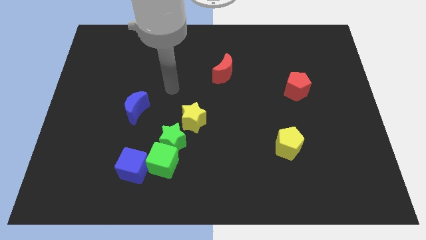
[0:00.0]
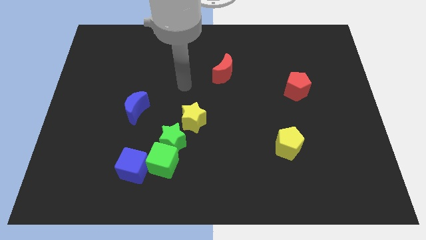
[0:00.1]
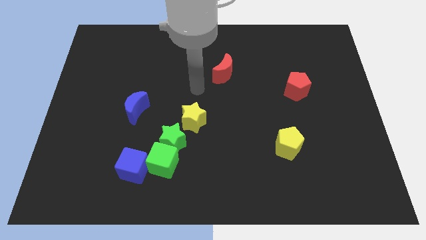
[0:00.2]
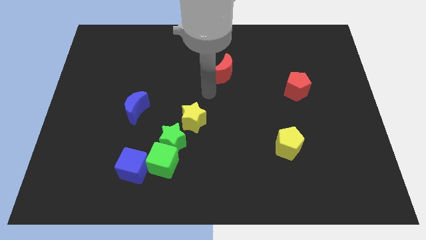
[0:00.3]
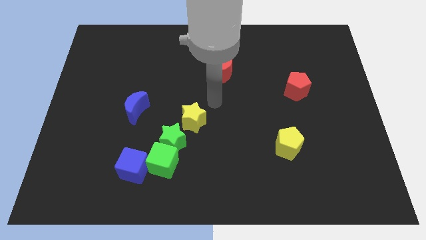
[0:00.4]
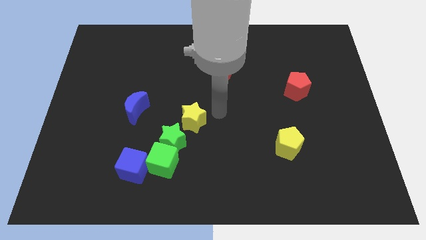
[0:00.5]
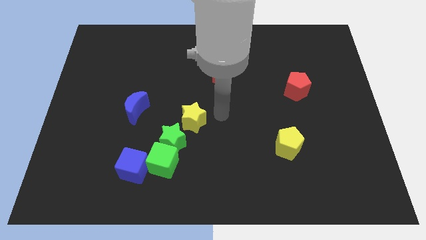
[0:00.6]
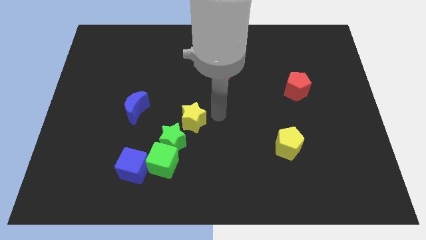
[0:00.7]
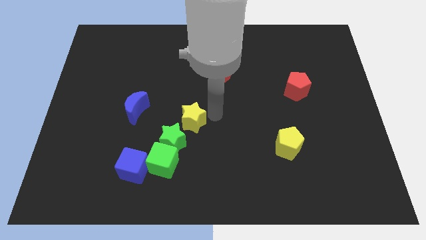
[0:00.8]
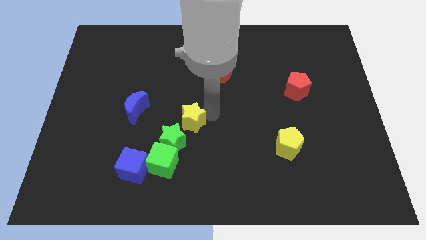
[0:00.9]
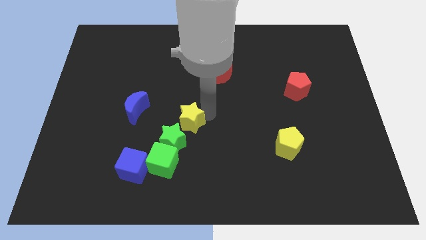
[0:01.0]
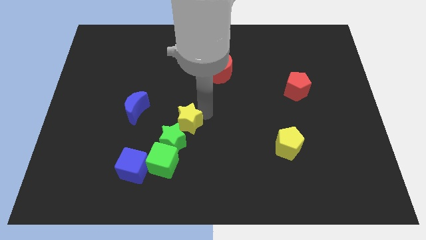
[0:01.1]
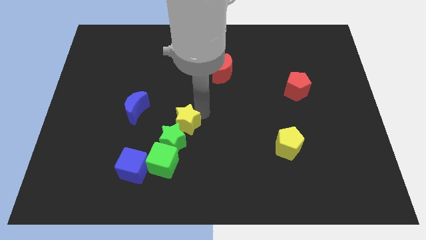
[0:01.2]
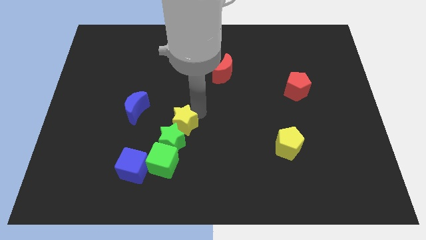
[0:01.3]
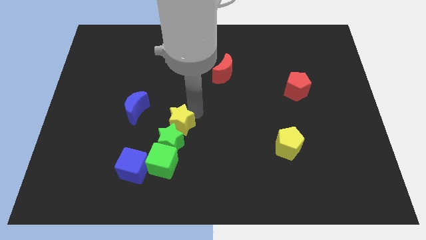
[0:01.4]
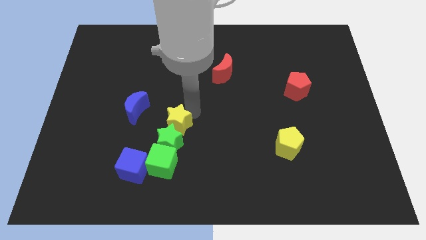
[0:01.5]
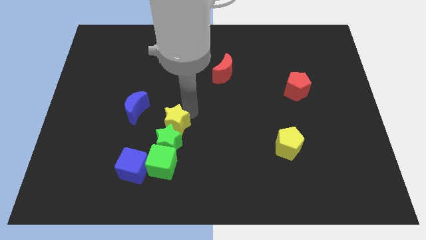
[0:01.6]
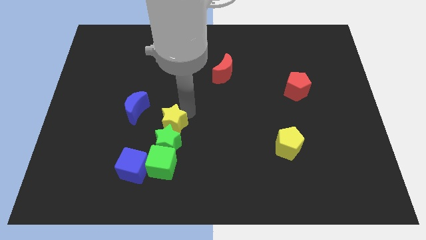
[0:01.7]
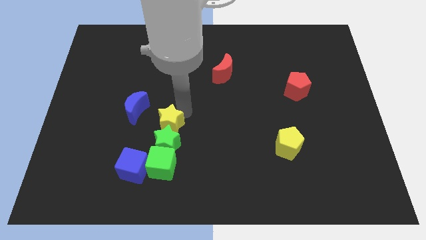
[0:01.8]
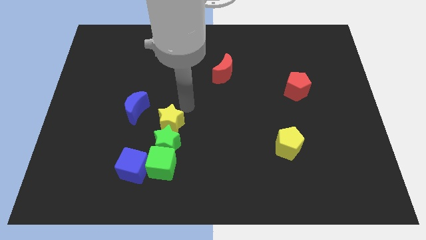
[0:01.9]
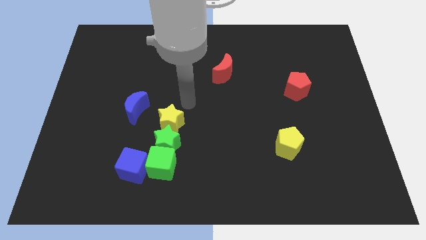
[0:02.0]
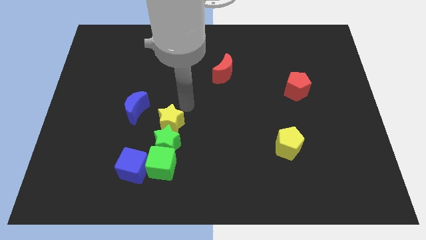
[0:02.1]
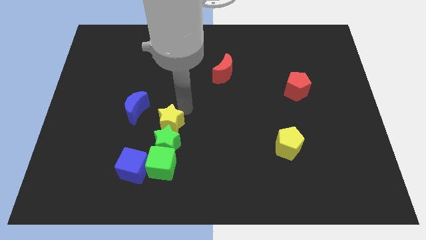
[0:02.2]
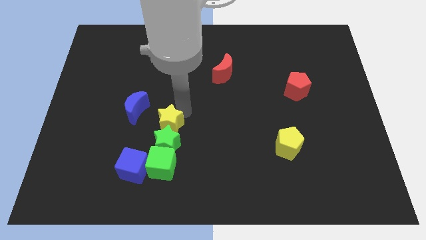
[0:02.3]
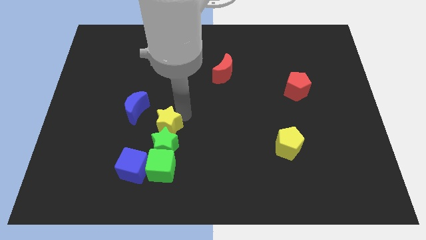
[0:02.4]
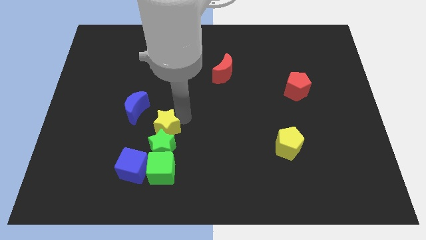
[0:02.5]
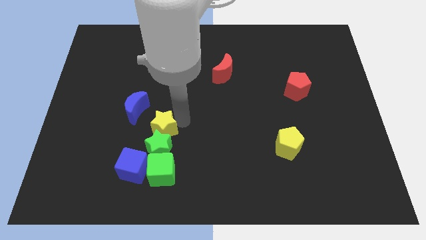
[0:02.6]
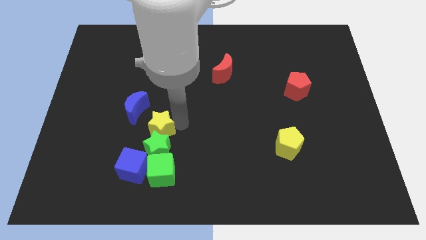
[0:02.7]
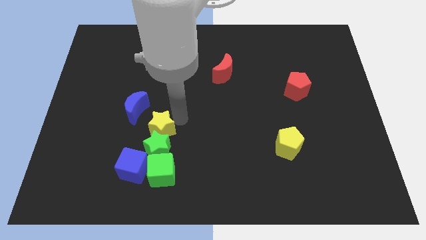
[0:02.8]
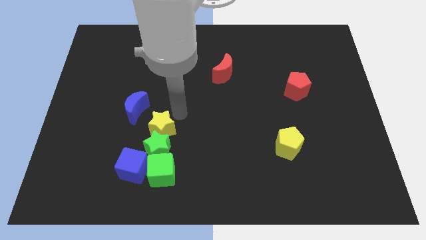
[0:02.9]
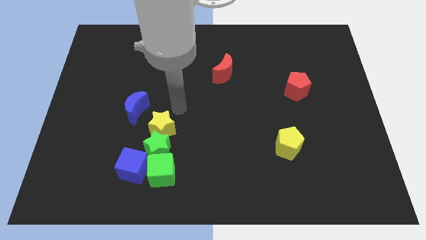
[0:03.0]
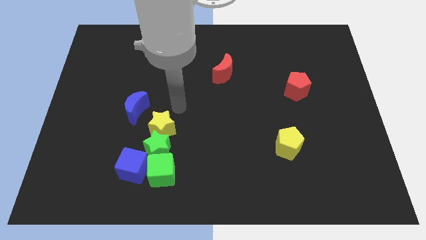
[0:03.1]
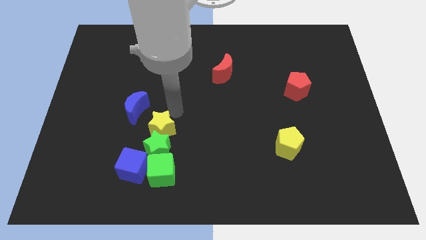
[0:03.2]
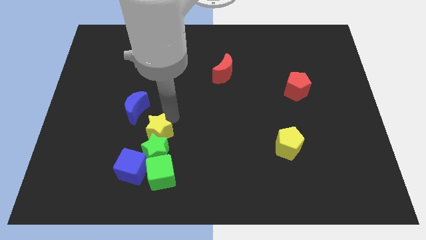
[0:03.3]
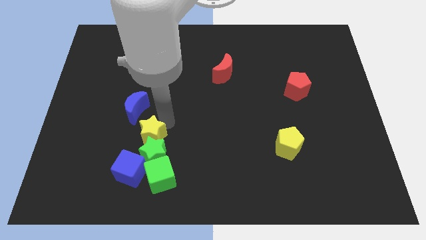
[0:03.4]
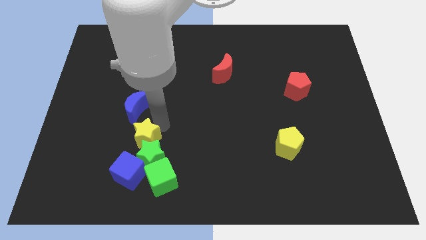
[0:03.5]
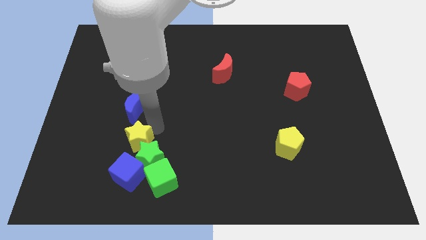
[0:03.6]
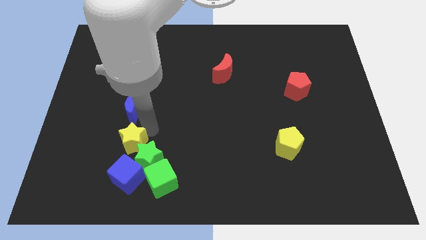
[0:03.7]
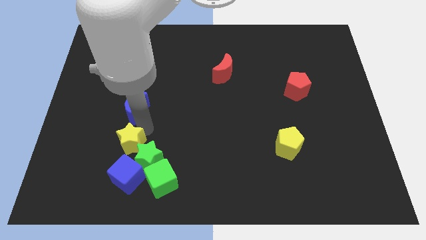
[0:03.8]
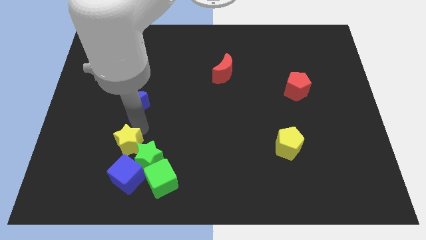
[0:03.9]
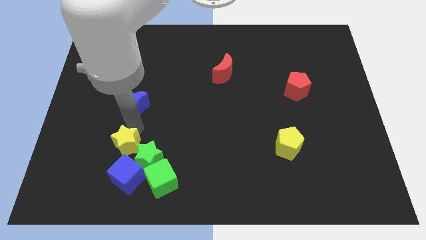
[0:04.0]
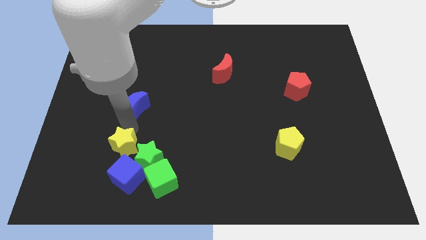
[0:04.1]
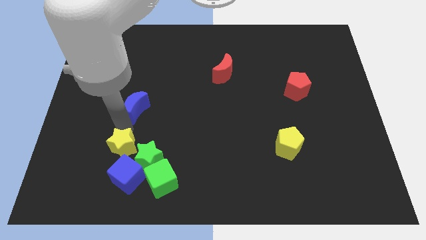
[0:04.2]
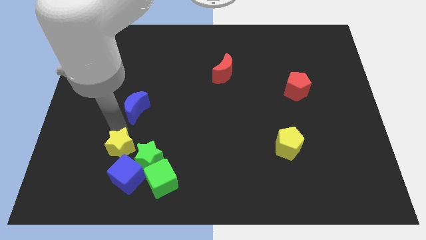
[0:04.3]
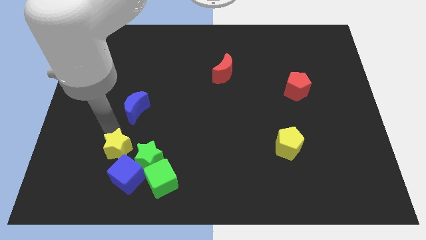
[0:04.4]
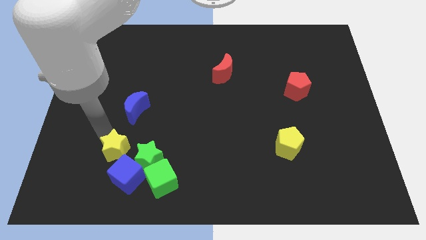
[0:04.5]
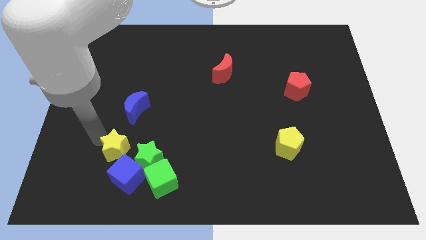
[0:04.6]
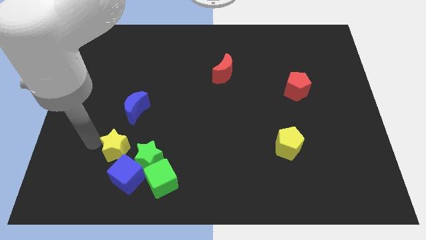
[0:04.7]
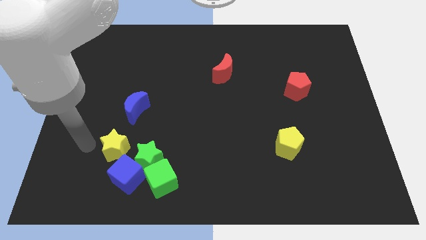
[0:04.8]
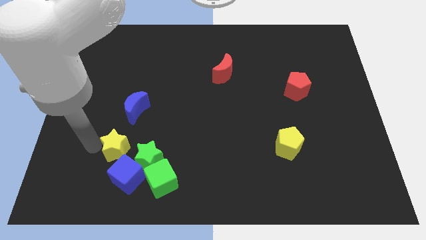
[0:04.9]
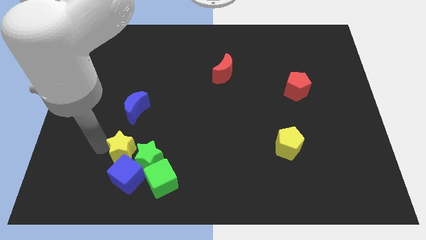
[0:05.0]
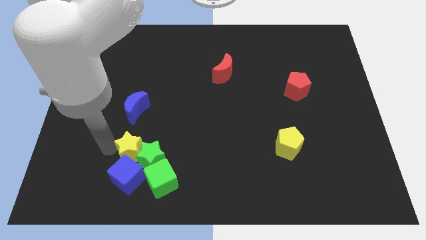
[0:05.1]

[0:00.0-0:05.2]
push the yellow star close to the blue cube

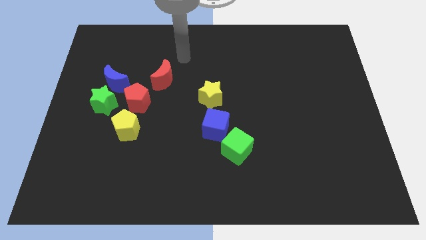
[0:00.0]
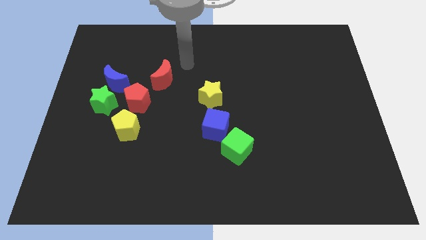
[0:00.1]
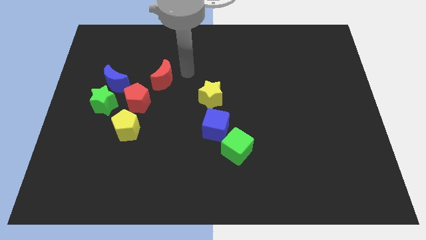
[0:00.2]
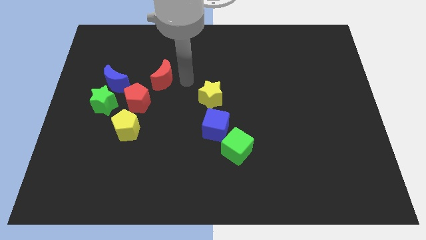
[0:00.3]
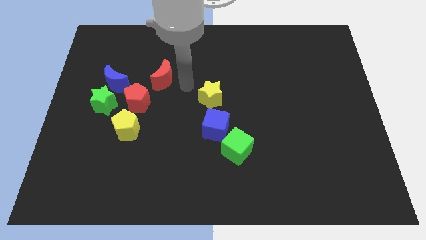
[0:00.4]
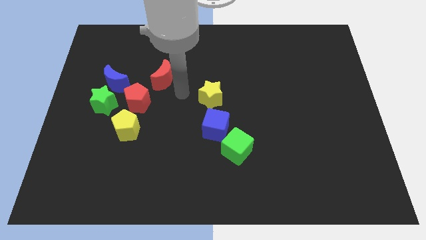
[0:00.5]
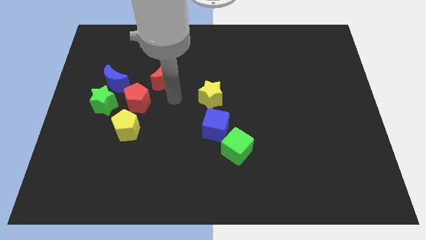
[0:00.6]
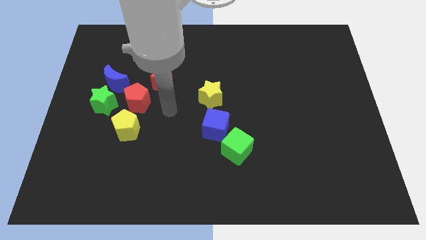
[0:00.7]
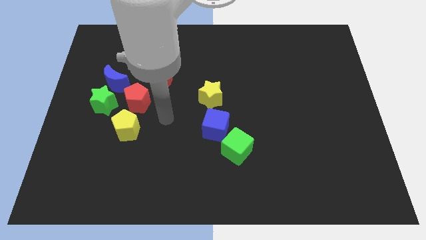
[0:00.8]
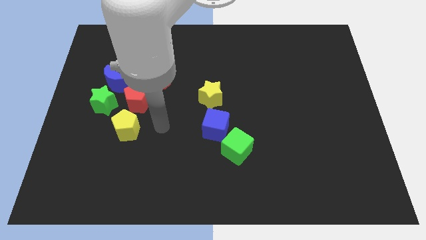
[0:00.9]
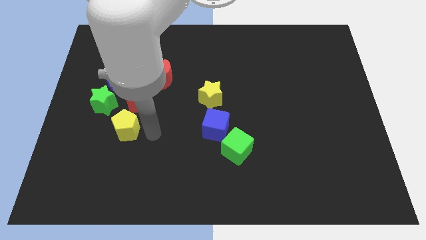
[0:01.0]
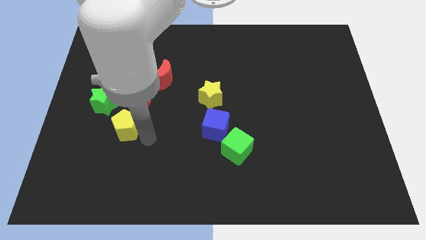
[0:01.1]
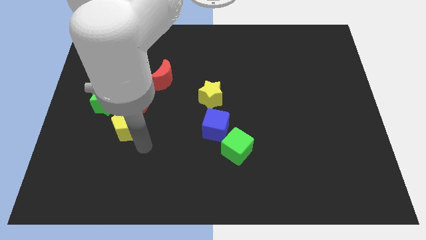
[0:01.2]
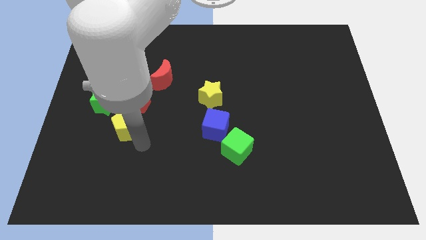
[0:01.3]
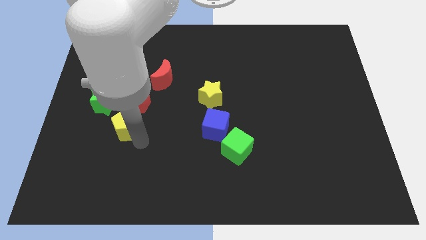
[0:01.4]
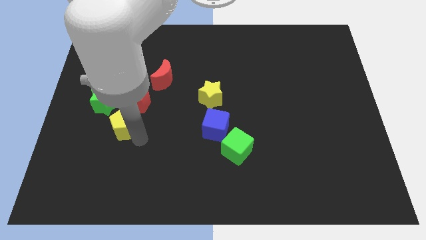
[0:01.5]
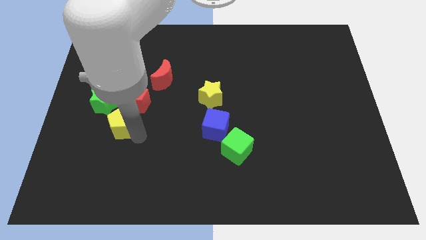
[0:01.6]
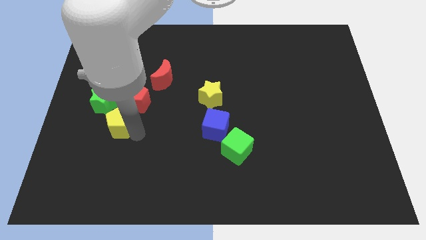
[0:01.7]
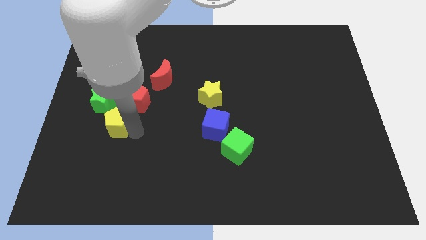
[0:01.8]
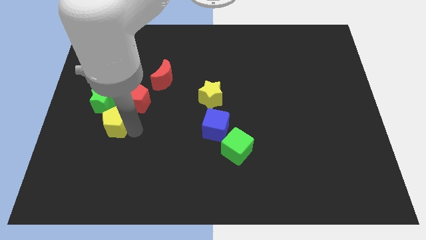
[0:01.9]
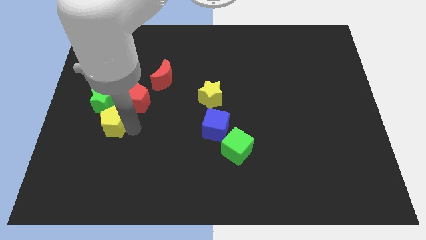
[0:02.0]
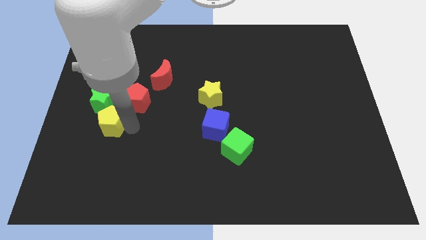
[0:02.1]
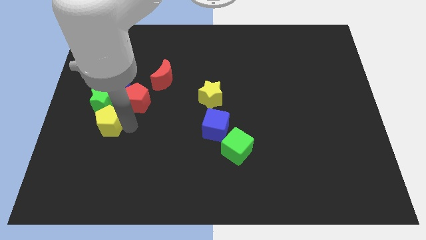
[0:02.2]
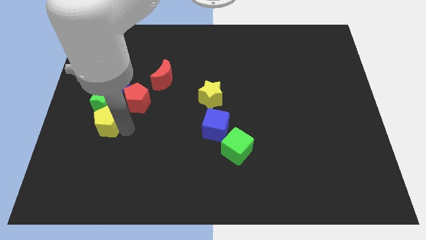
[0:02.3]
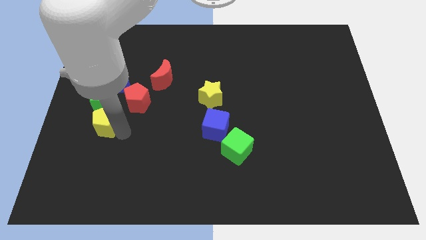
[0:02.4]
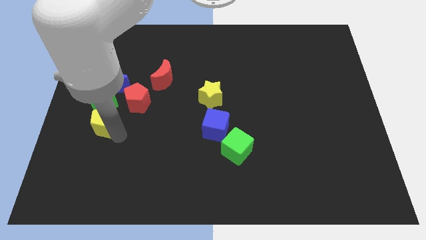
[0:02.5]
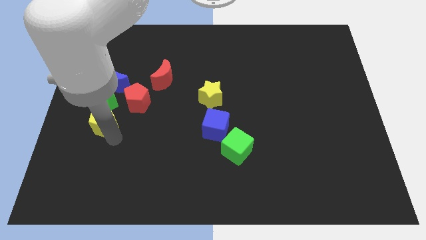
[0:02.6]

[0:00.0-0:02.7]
move the yellow pentagon next to the green star
